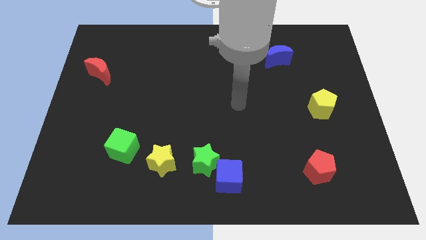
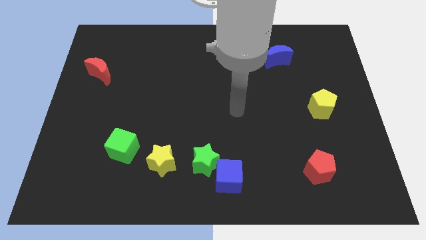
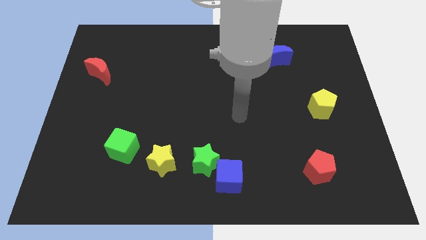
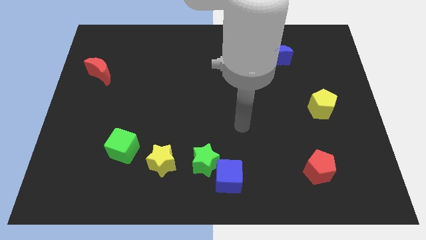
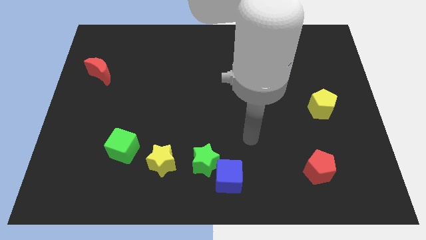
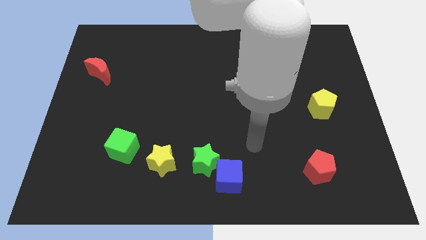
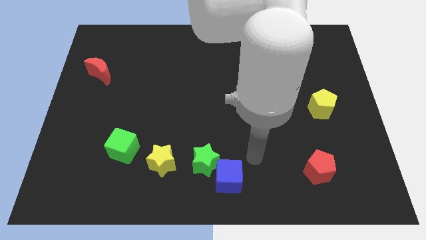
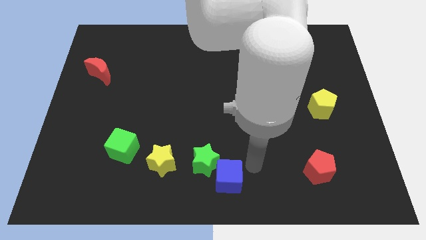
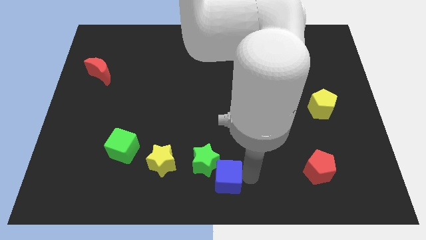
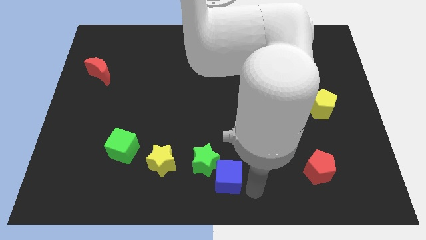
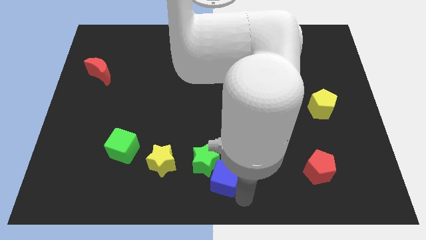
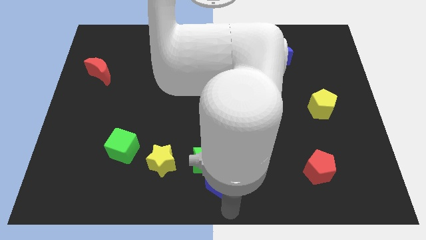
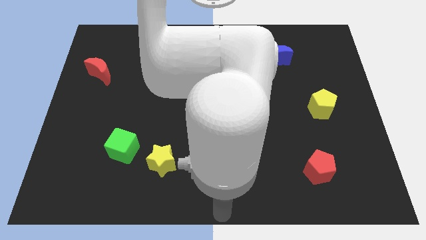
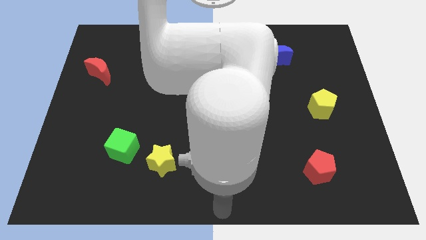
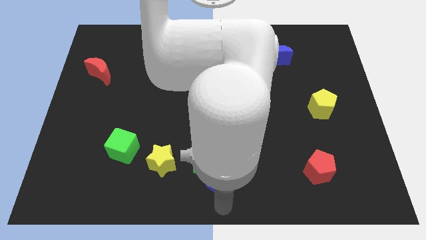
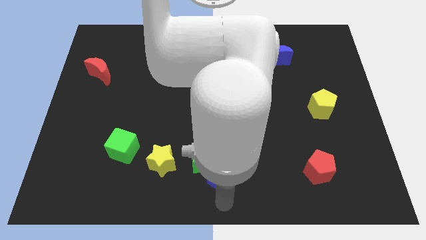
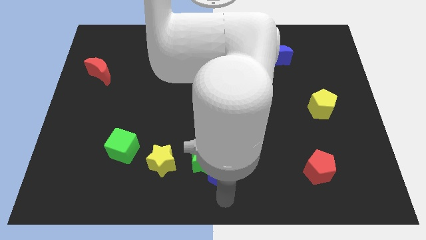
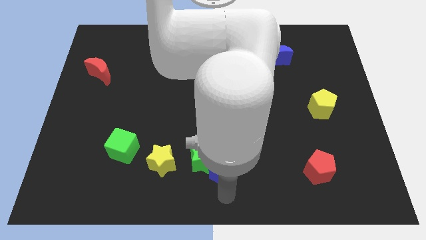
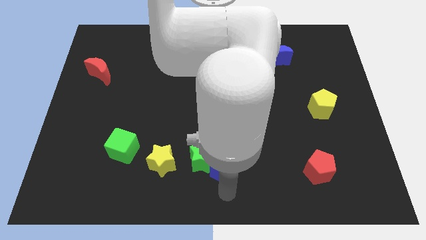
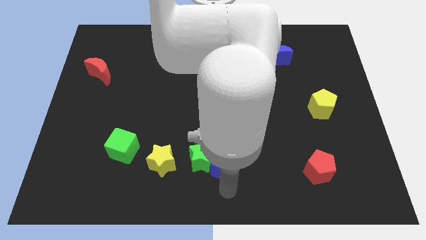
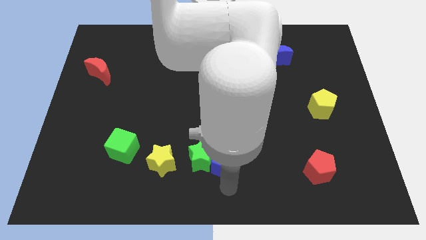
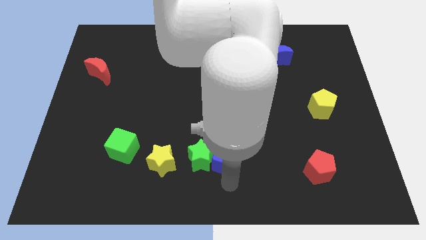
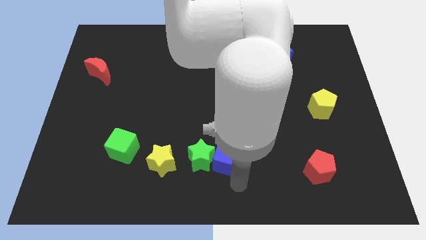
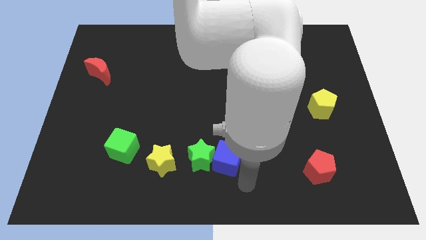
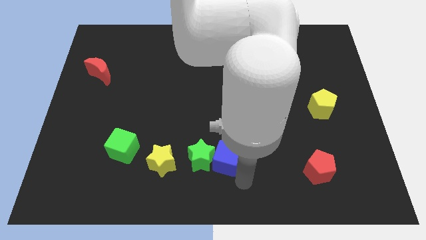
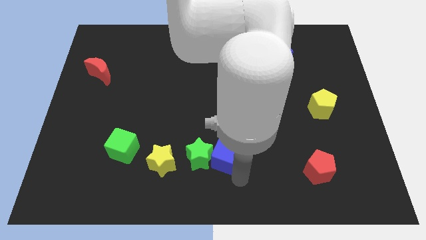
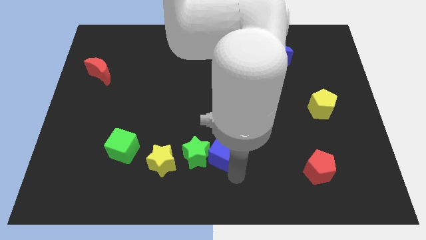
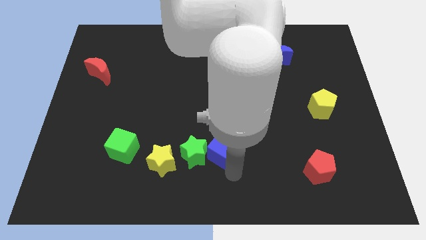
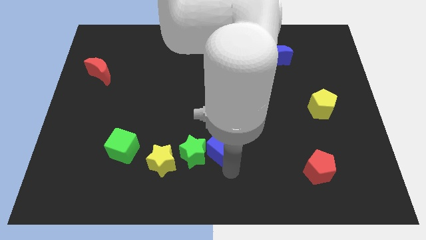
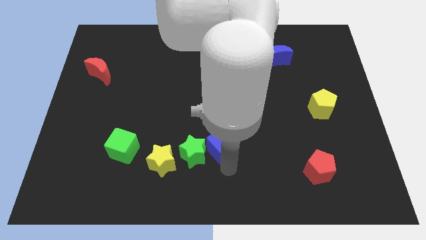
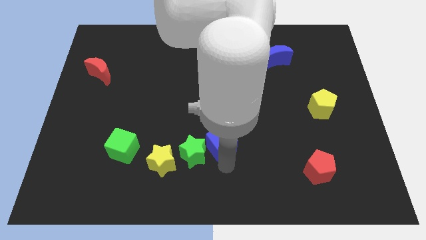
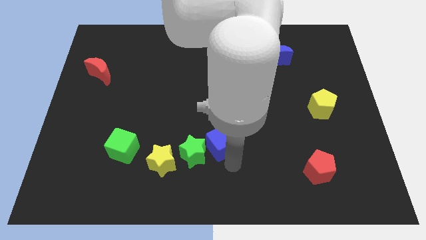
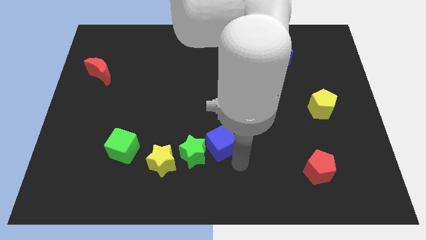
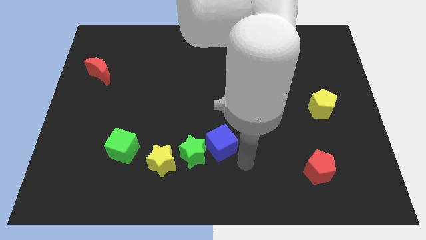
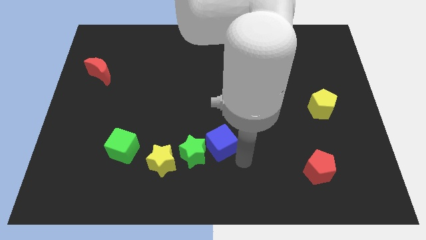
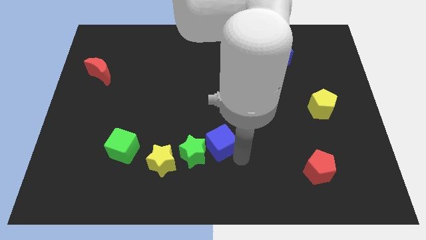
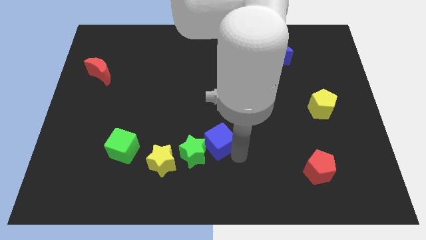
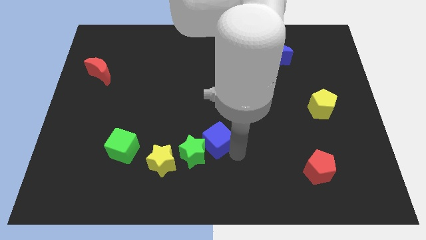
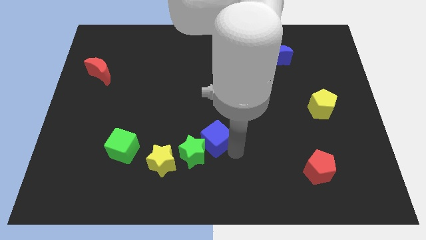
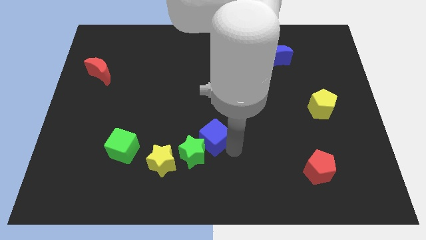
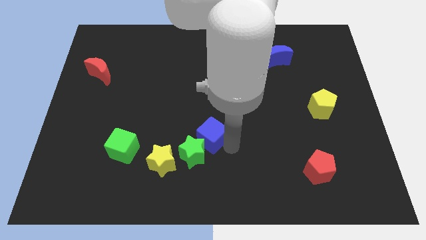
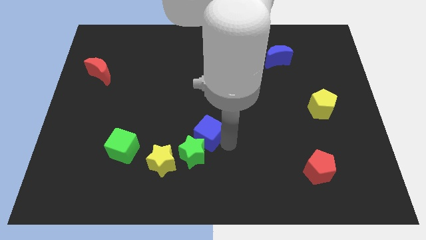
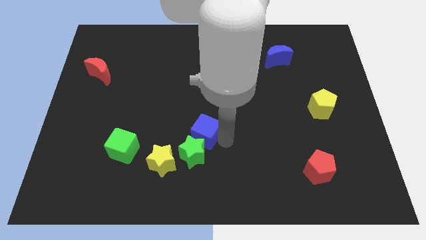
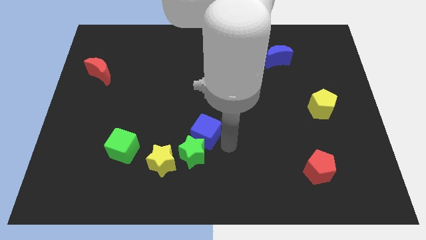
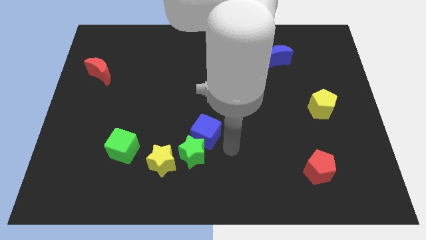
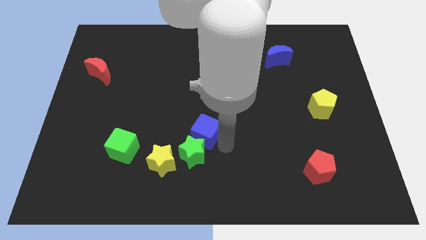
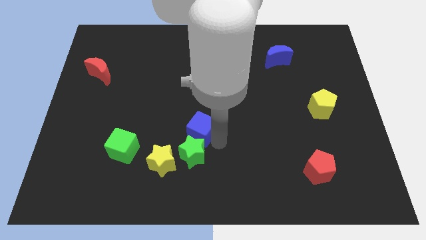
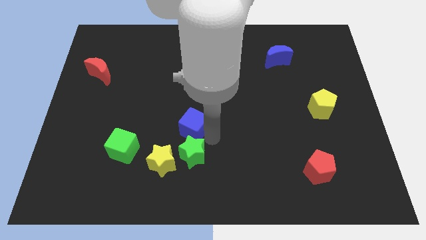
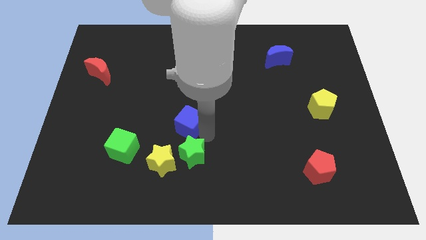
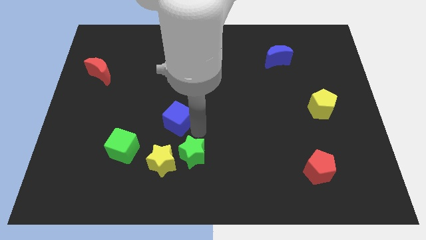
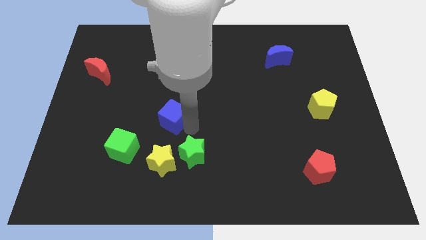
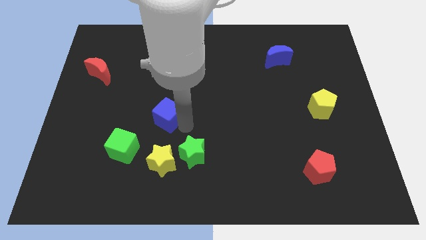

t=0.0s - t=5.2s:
slide the blue cube up and to the left diagonally

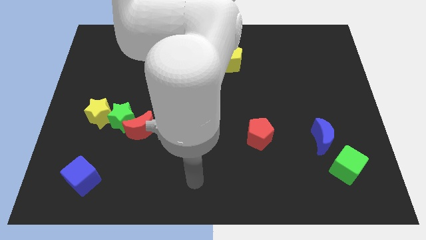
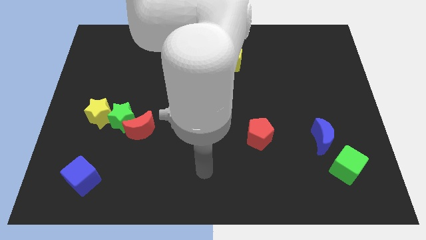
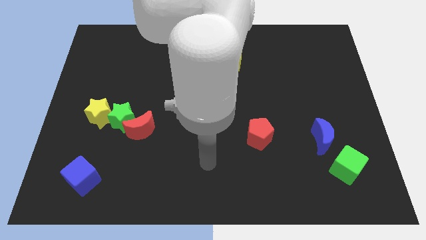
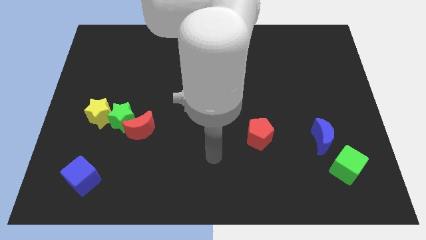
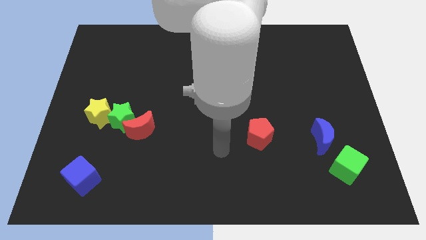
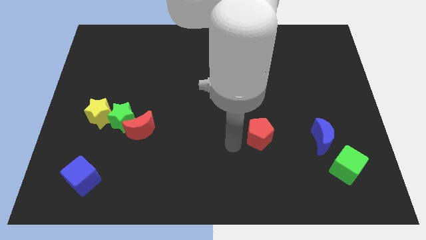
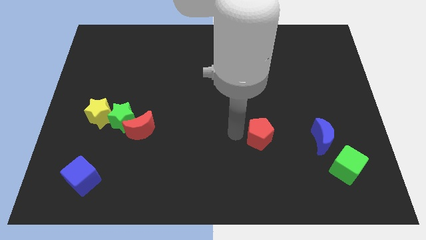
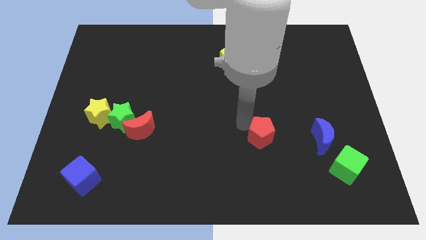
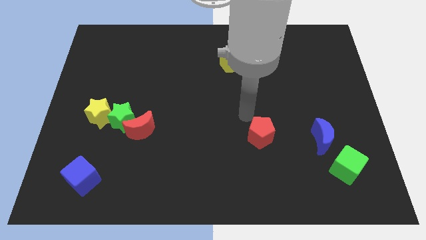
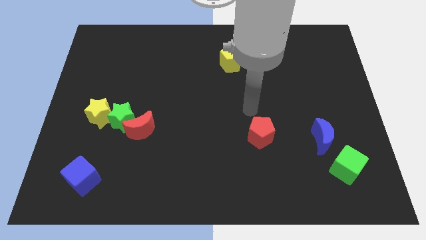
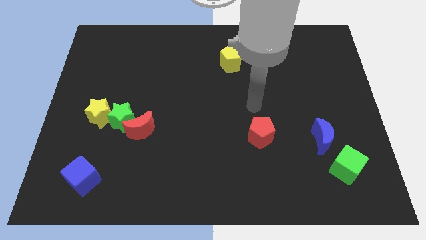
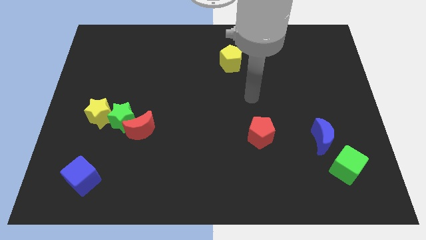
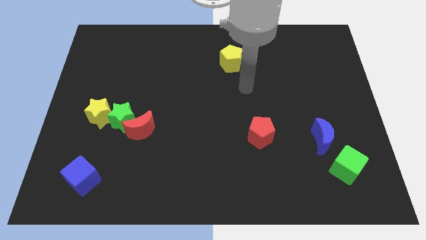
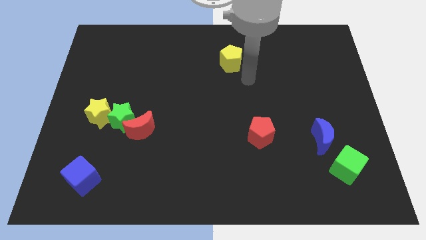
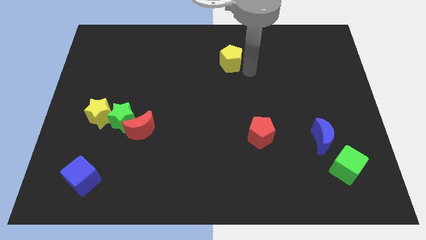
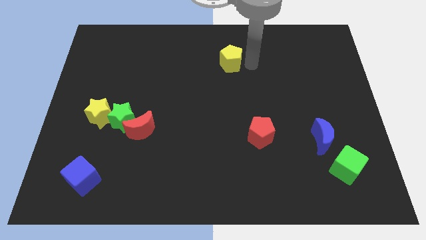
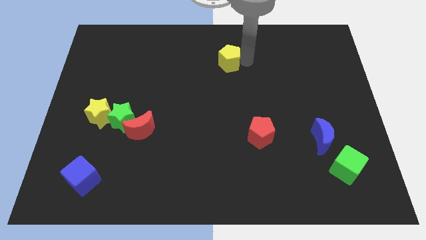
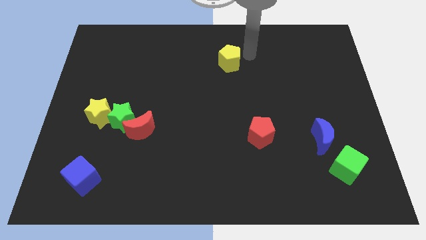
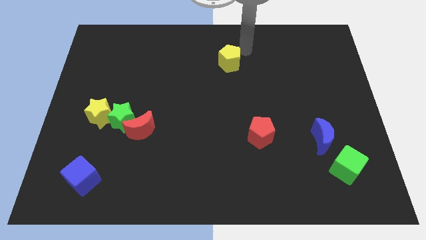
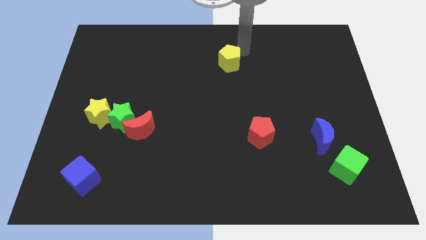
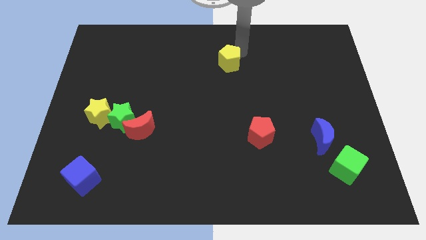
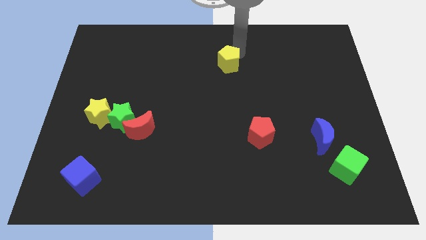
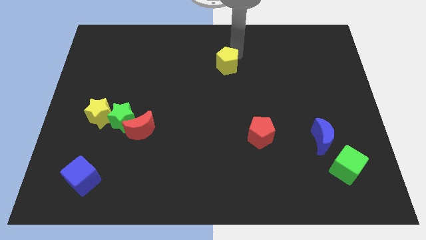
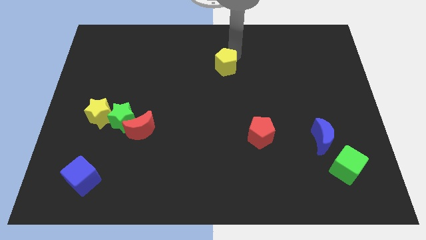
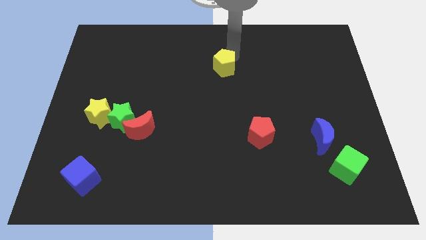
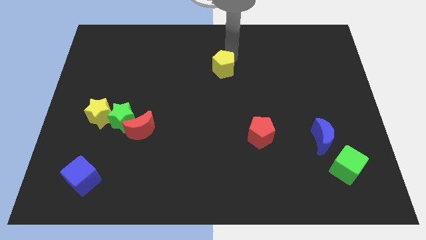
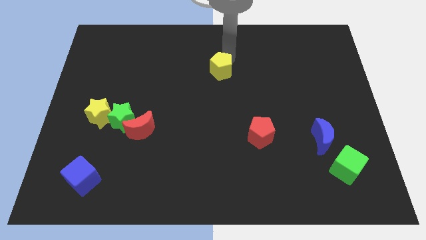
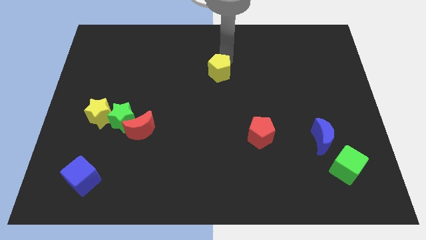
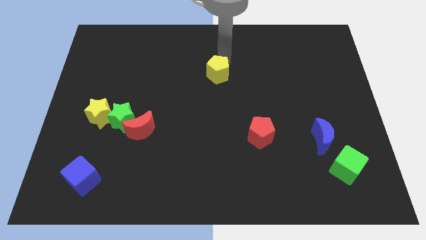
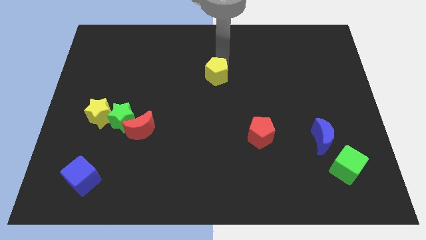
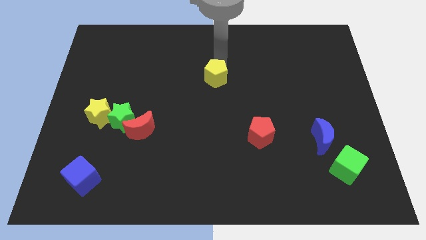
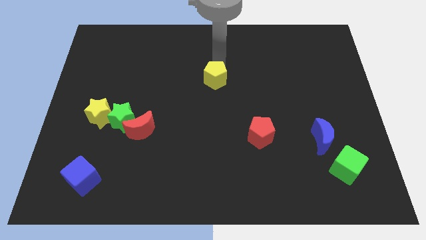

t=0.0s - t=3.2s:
move the yellow pentagon a bit diagonally downwards and left
